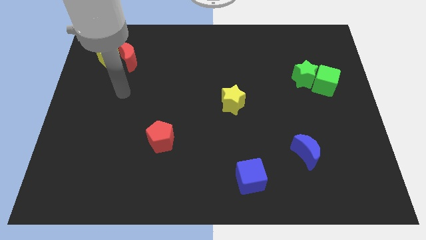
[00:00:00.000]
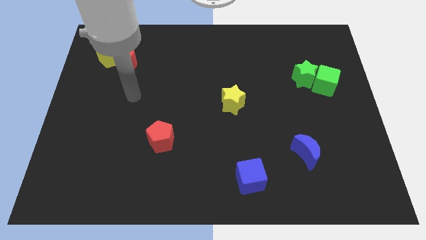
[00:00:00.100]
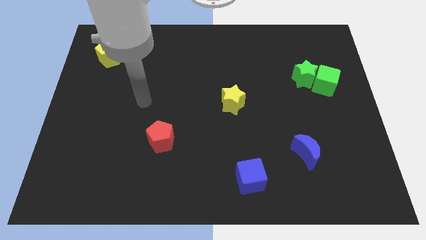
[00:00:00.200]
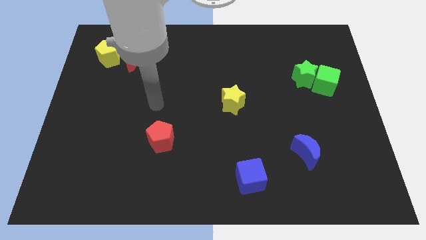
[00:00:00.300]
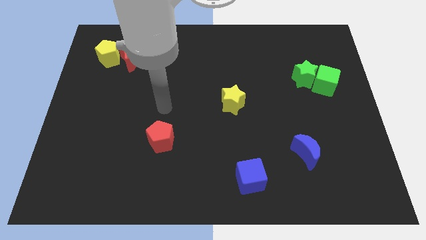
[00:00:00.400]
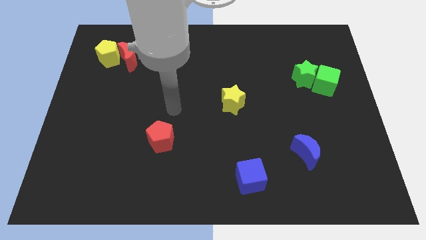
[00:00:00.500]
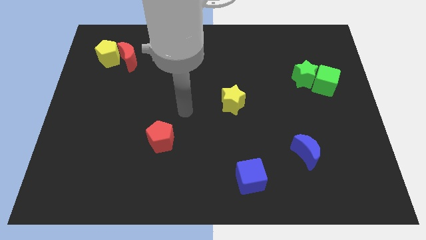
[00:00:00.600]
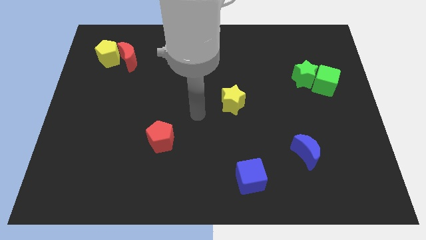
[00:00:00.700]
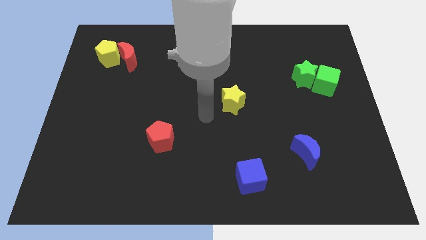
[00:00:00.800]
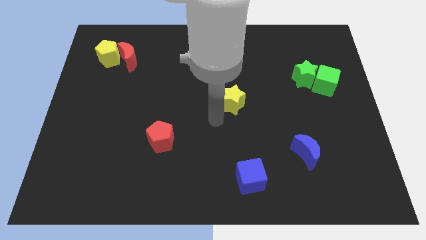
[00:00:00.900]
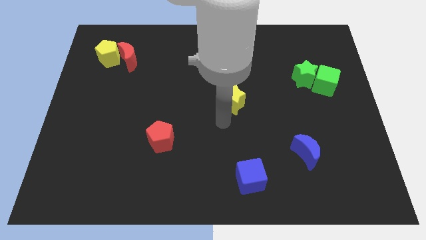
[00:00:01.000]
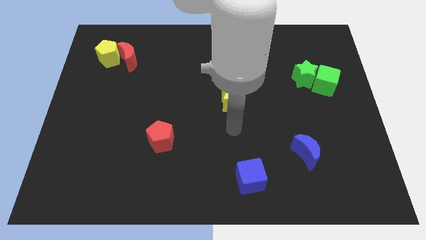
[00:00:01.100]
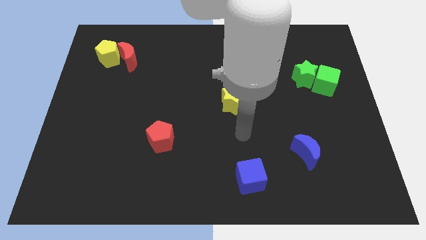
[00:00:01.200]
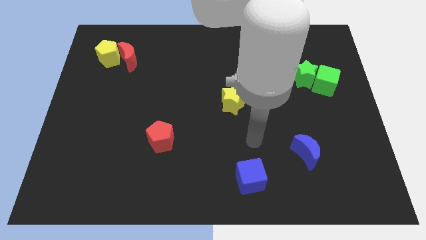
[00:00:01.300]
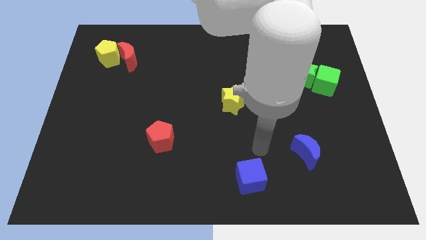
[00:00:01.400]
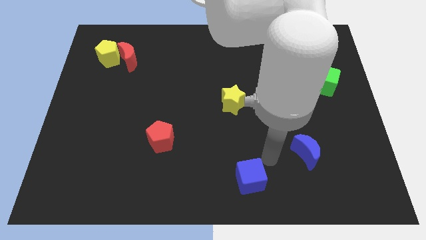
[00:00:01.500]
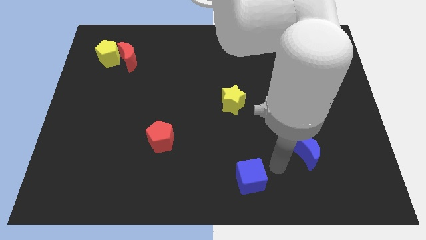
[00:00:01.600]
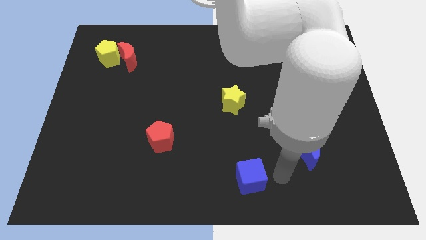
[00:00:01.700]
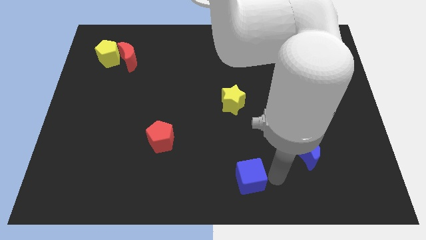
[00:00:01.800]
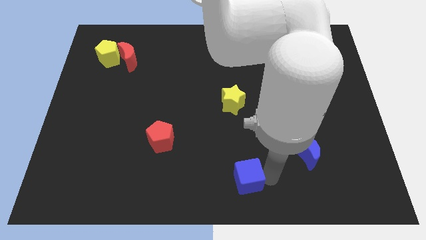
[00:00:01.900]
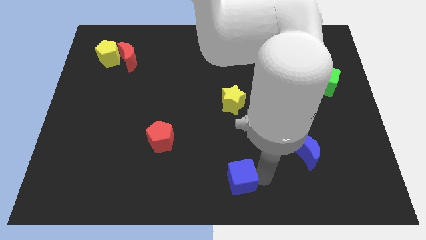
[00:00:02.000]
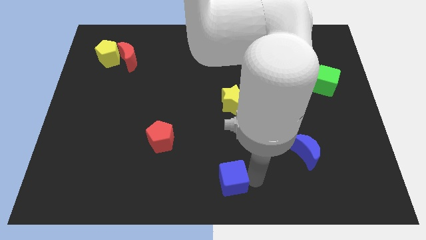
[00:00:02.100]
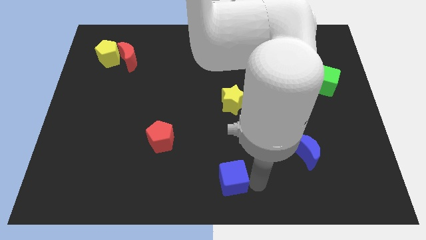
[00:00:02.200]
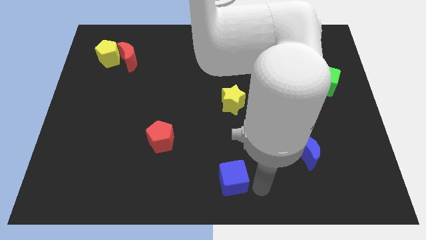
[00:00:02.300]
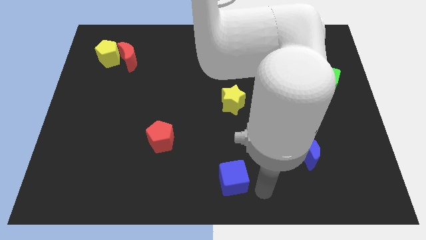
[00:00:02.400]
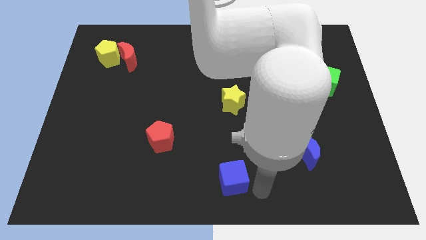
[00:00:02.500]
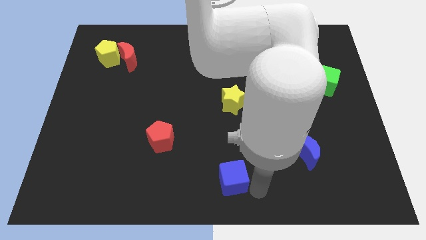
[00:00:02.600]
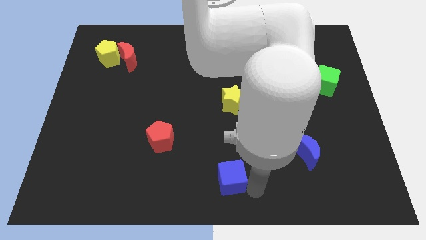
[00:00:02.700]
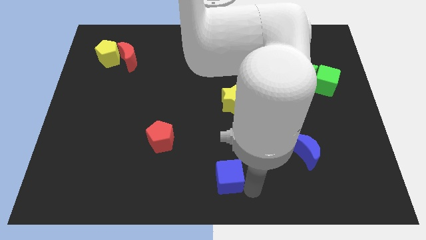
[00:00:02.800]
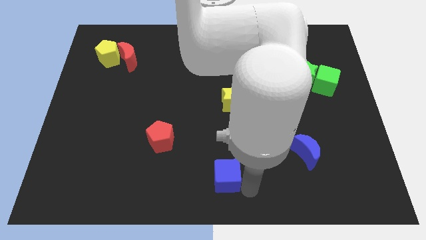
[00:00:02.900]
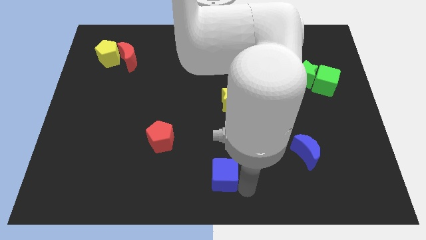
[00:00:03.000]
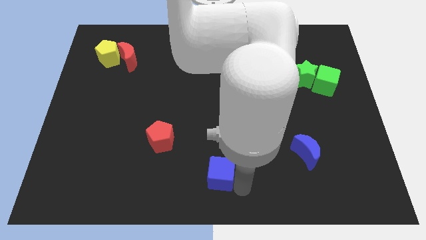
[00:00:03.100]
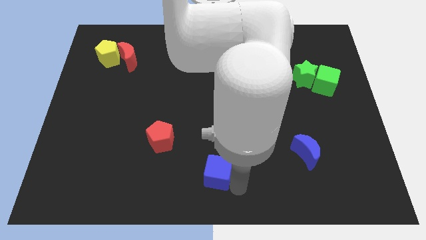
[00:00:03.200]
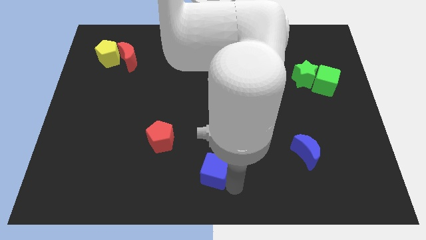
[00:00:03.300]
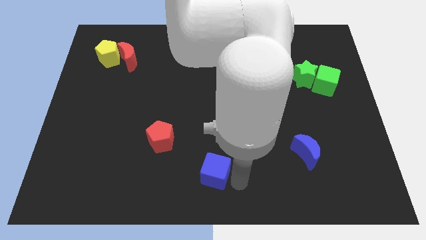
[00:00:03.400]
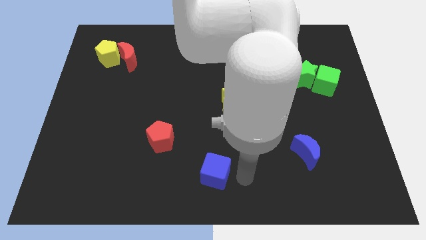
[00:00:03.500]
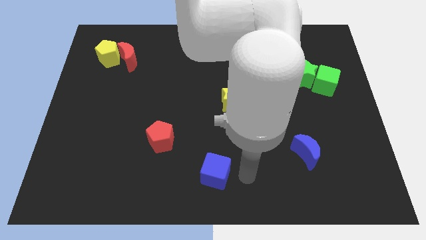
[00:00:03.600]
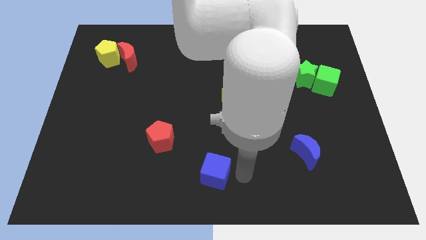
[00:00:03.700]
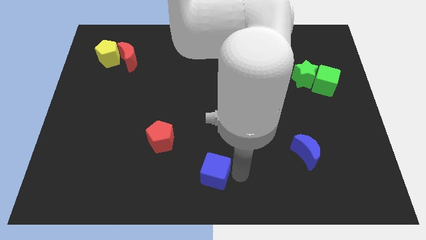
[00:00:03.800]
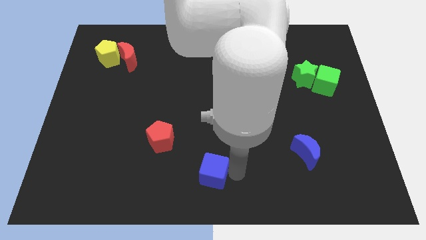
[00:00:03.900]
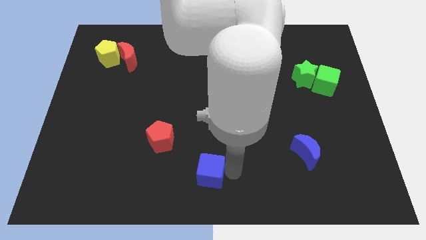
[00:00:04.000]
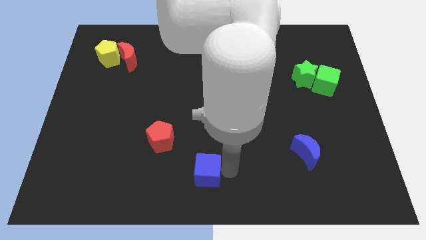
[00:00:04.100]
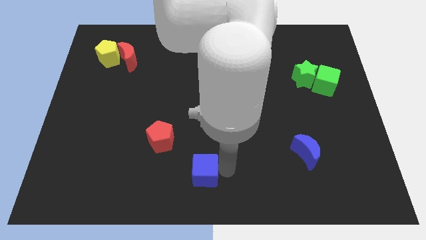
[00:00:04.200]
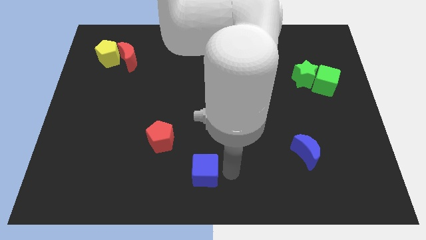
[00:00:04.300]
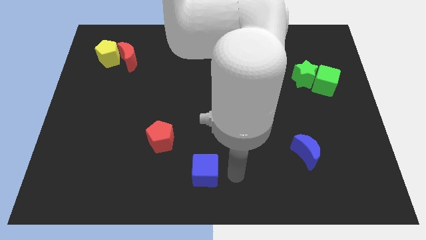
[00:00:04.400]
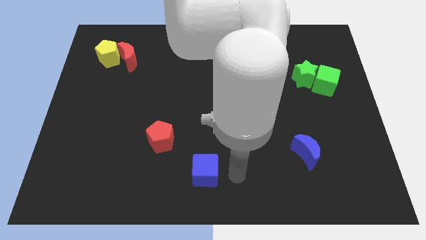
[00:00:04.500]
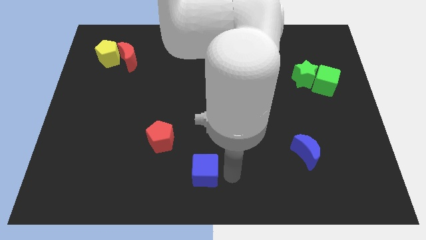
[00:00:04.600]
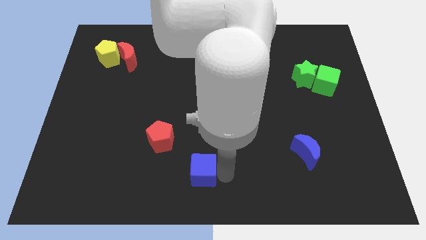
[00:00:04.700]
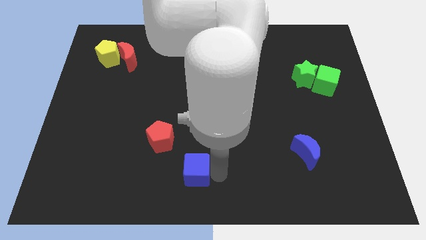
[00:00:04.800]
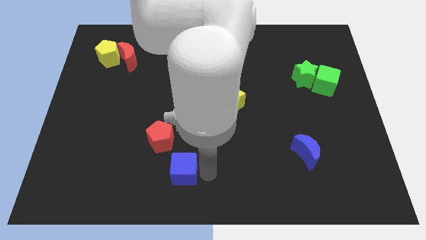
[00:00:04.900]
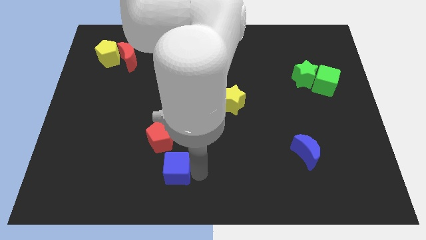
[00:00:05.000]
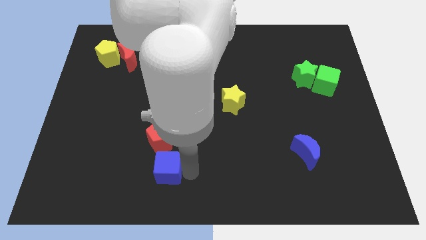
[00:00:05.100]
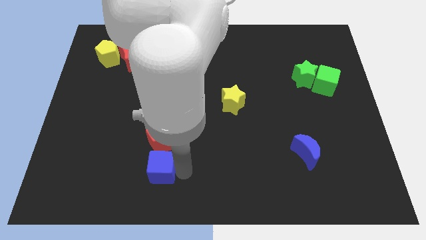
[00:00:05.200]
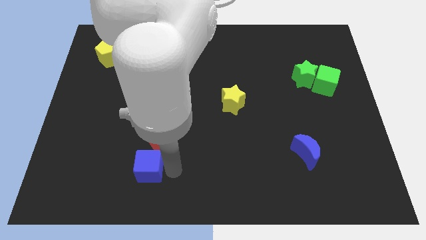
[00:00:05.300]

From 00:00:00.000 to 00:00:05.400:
push the blue cube to the left

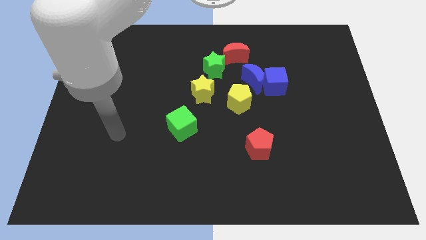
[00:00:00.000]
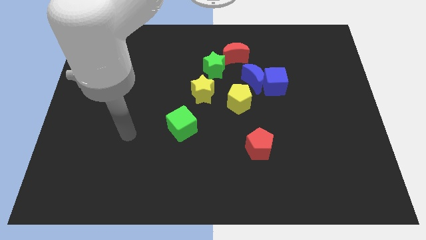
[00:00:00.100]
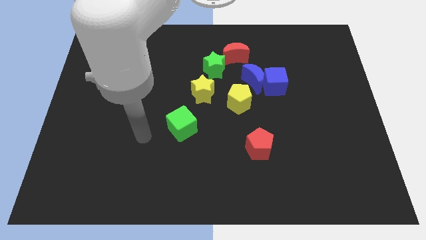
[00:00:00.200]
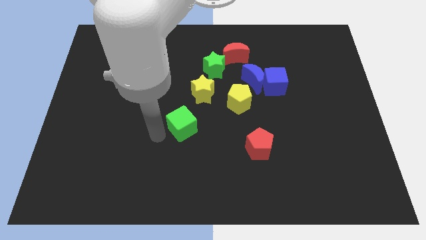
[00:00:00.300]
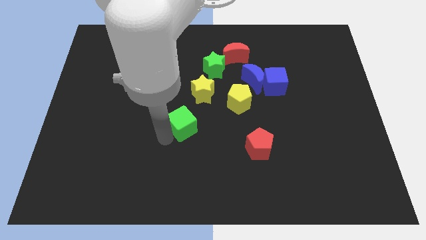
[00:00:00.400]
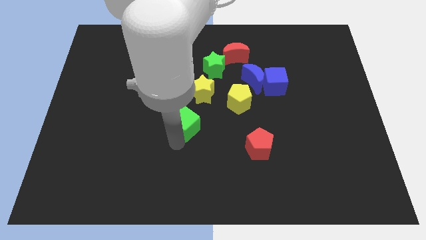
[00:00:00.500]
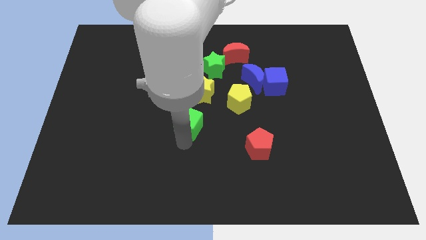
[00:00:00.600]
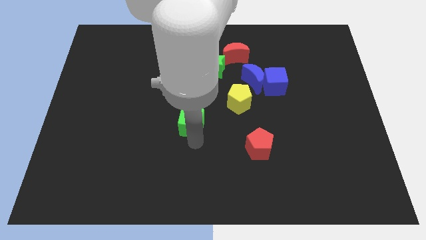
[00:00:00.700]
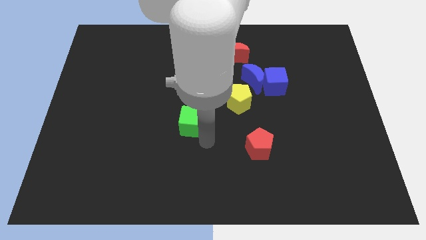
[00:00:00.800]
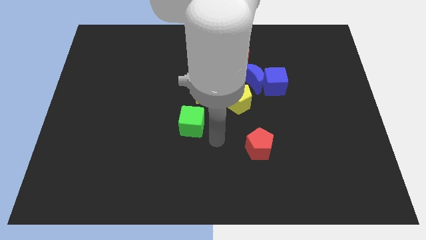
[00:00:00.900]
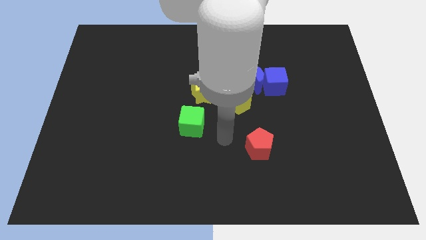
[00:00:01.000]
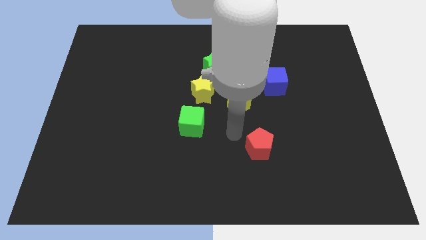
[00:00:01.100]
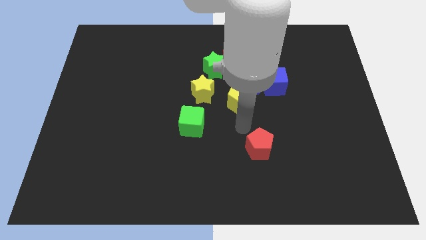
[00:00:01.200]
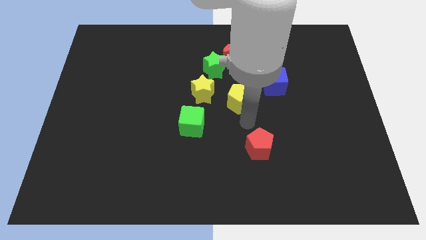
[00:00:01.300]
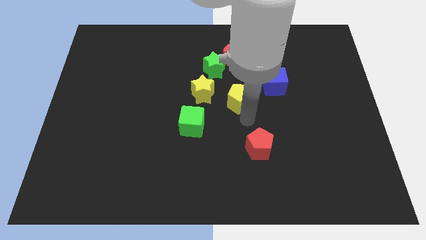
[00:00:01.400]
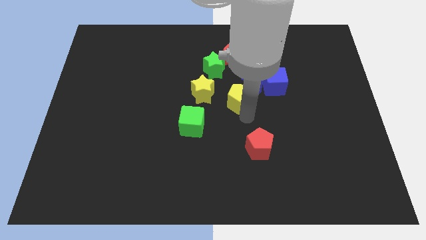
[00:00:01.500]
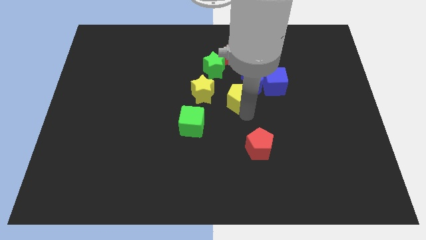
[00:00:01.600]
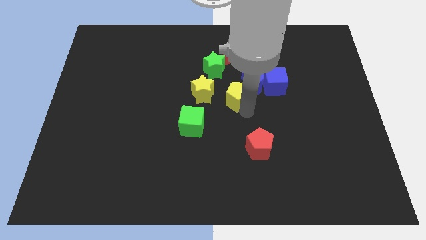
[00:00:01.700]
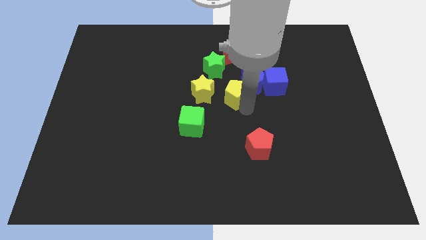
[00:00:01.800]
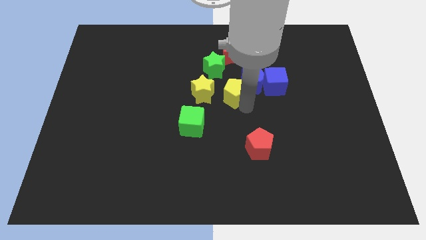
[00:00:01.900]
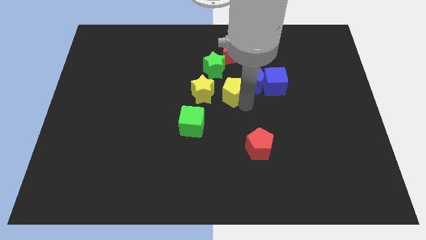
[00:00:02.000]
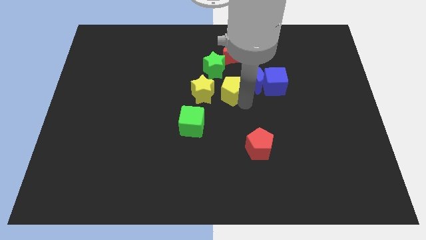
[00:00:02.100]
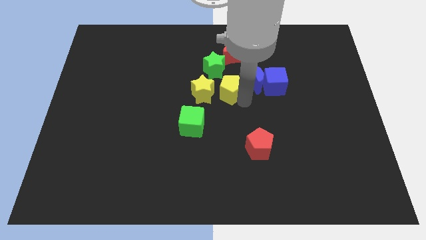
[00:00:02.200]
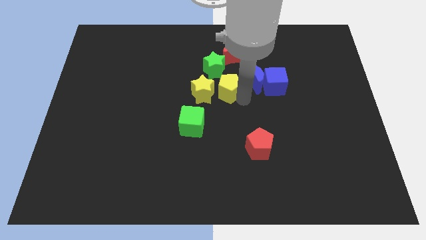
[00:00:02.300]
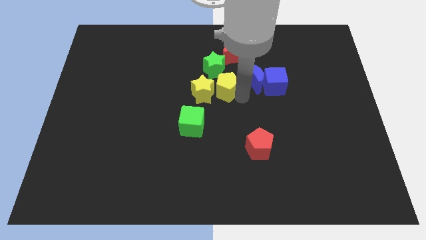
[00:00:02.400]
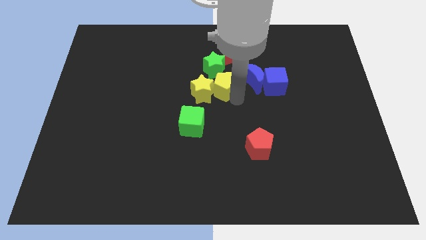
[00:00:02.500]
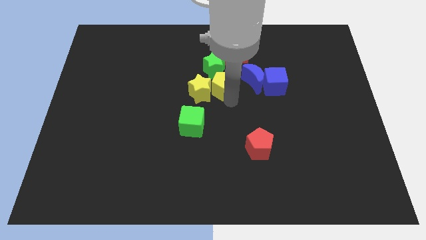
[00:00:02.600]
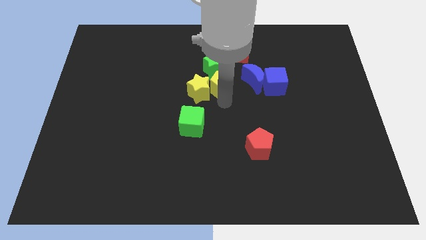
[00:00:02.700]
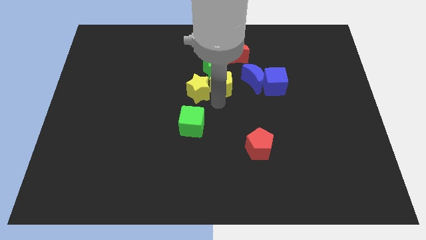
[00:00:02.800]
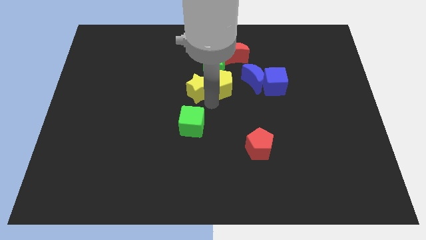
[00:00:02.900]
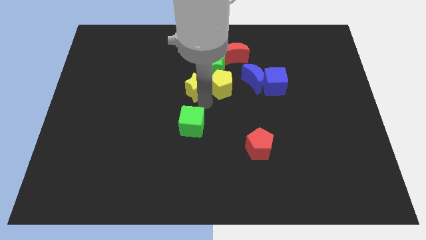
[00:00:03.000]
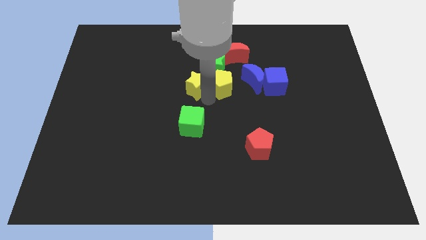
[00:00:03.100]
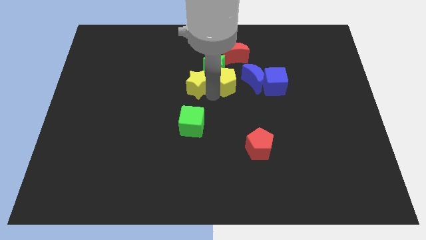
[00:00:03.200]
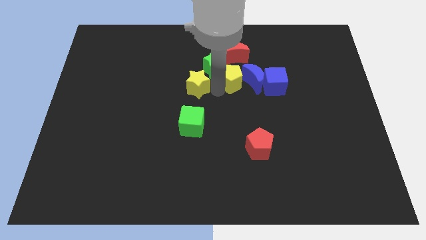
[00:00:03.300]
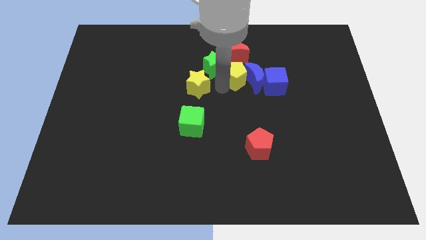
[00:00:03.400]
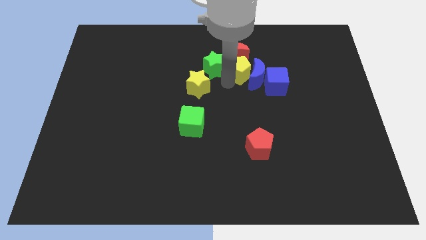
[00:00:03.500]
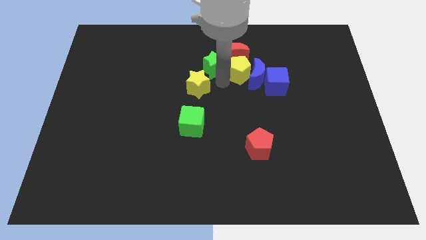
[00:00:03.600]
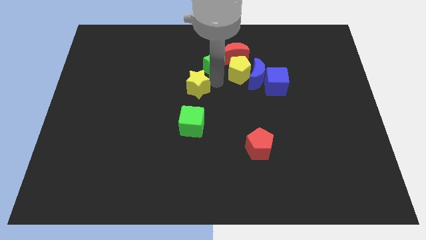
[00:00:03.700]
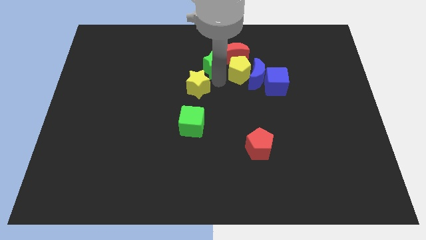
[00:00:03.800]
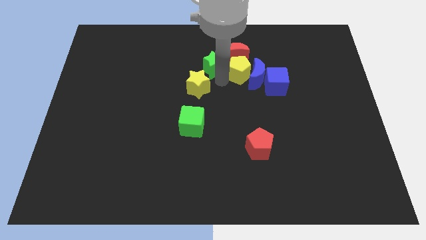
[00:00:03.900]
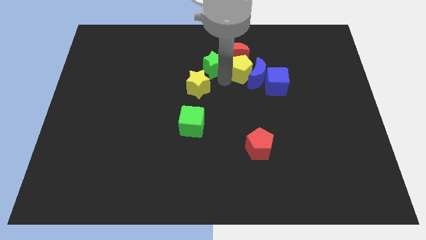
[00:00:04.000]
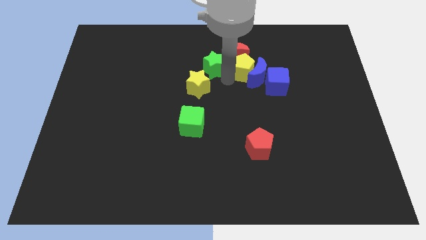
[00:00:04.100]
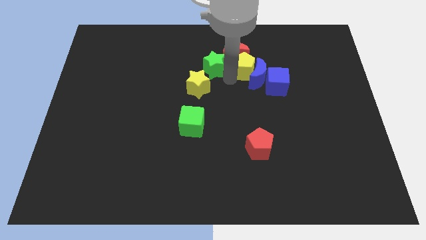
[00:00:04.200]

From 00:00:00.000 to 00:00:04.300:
slide the yellow pentagon a little bit upwards and then to the right
